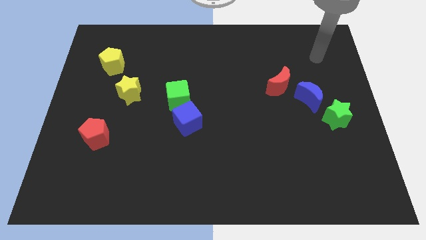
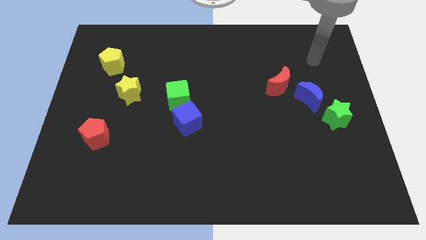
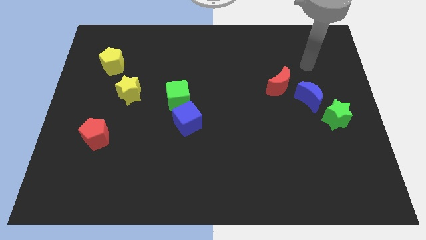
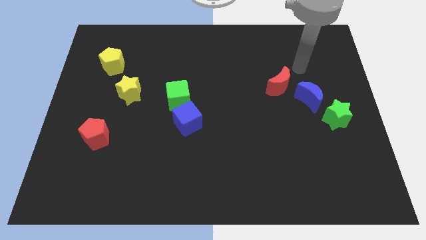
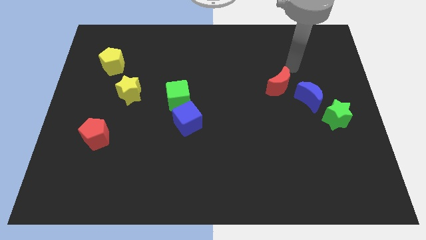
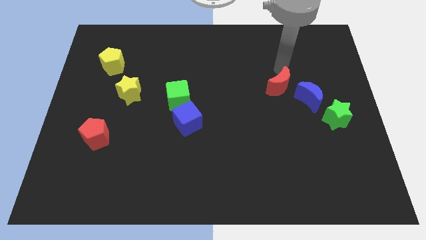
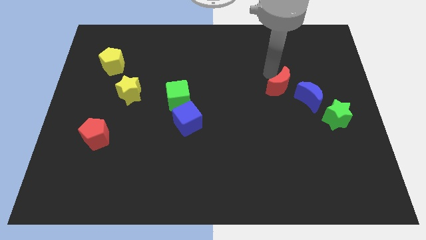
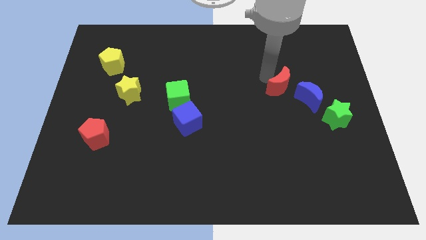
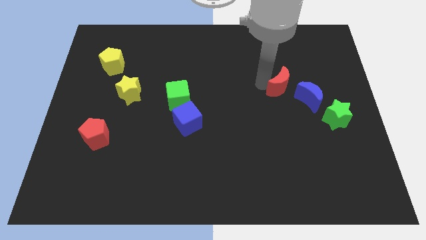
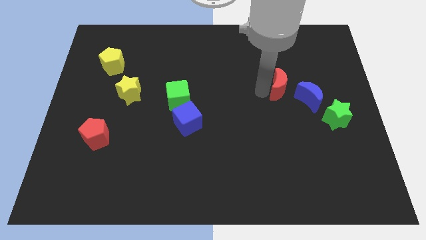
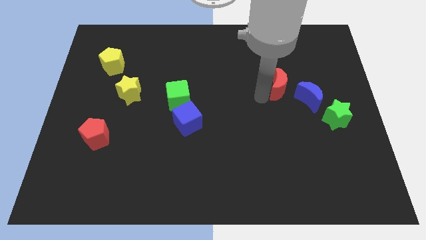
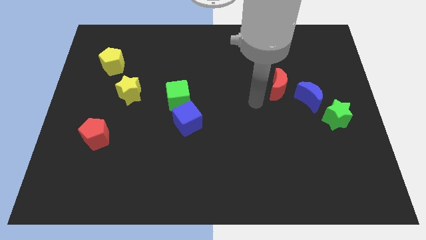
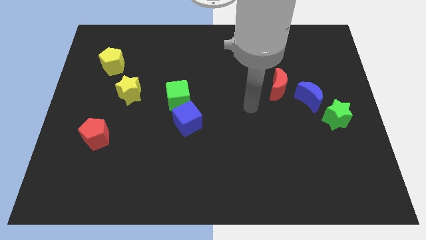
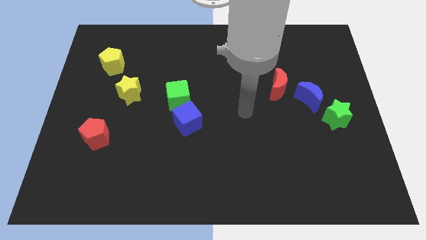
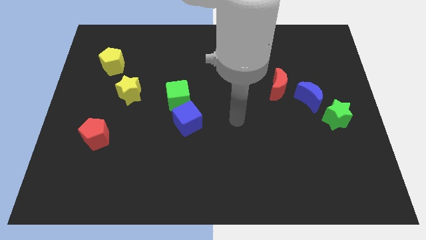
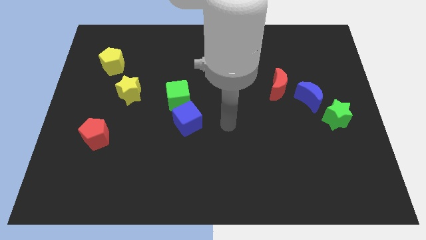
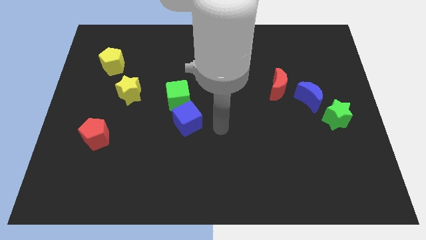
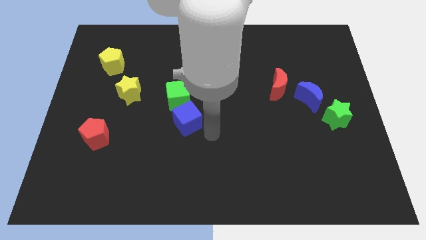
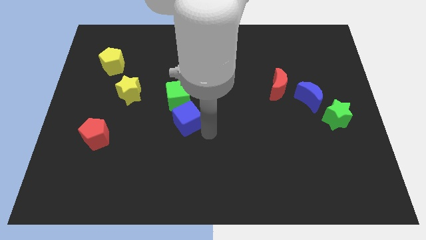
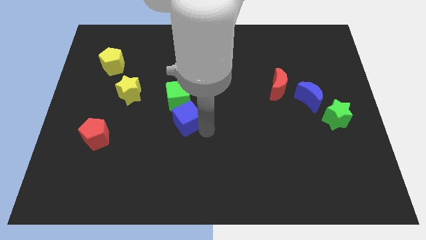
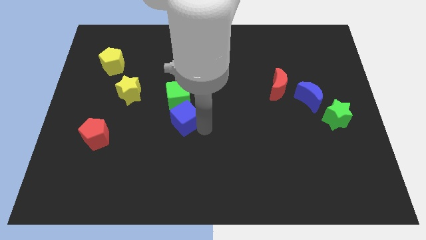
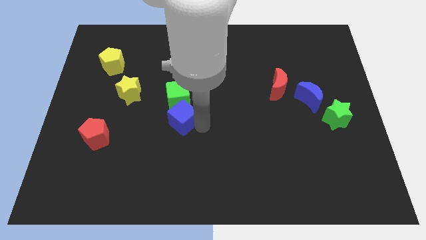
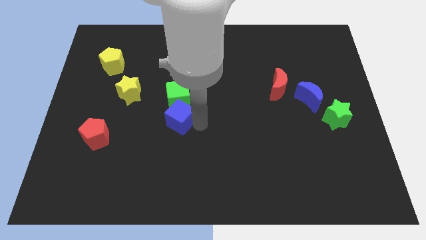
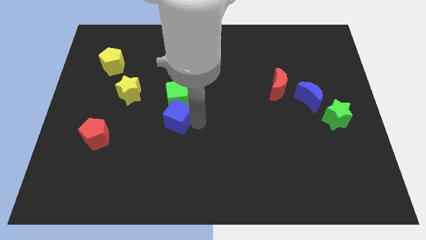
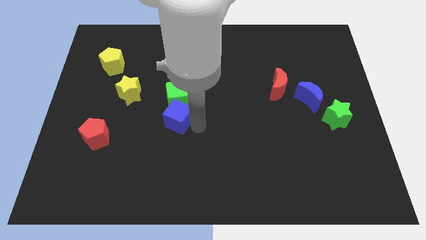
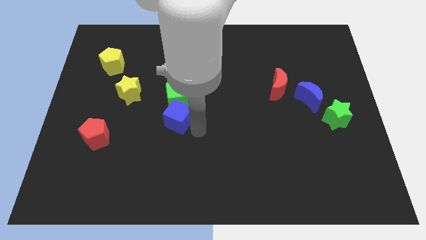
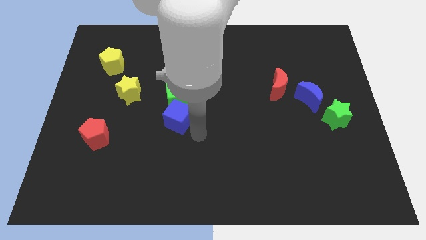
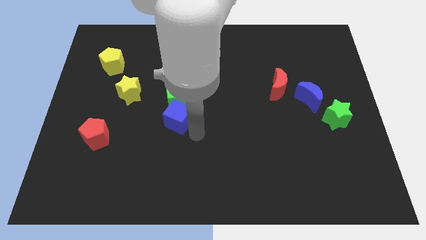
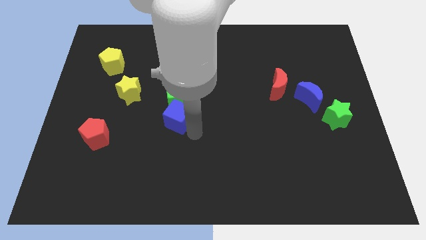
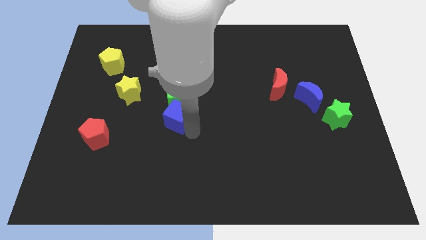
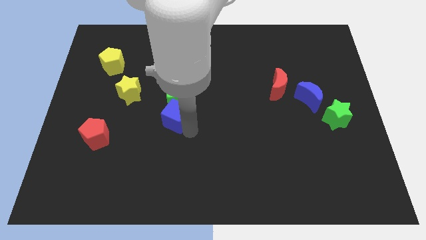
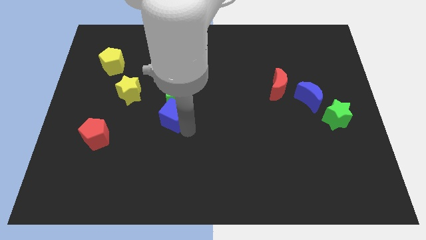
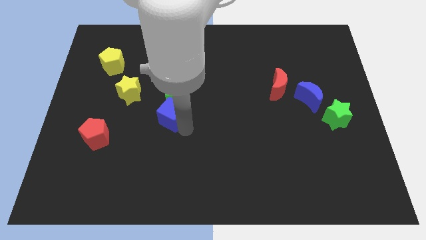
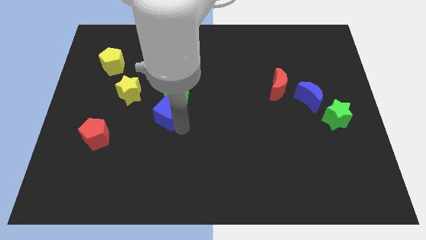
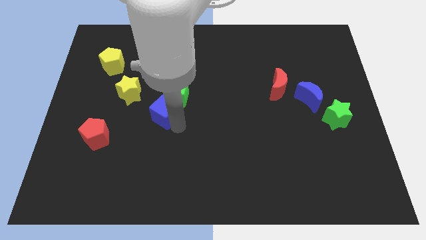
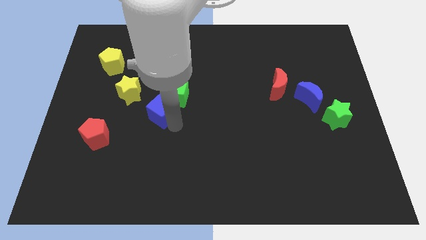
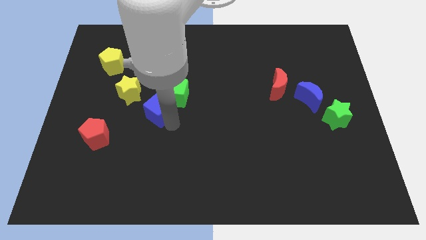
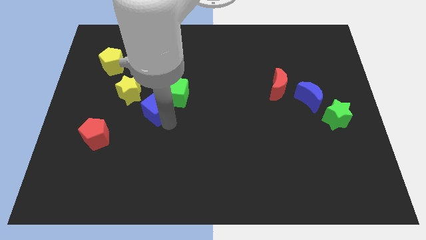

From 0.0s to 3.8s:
move the blue cube up and left a little

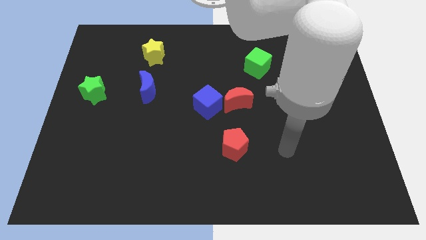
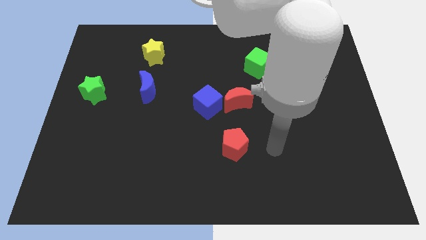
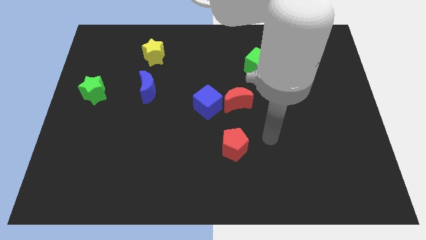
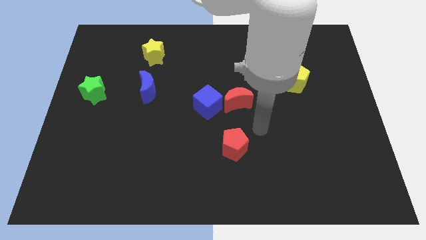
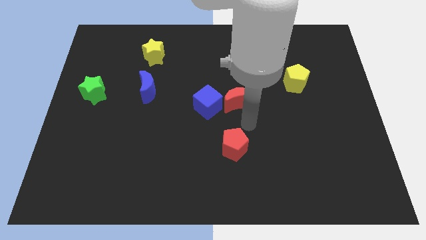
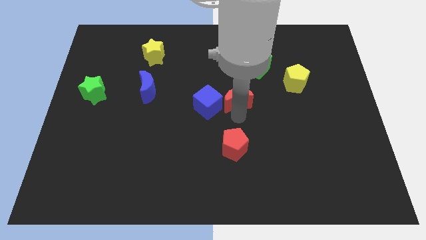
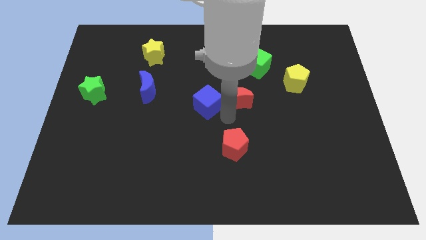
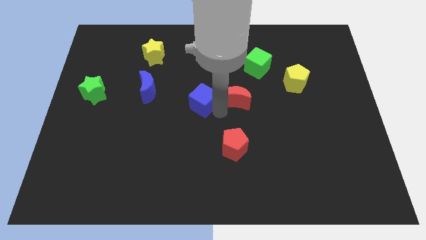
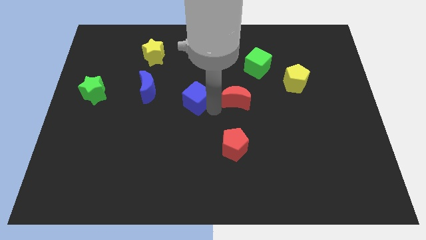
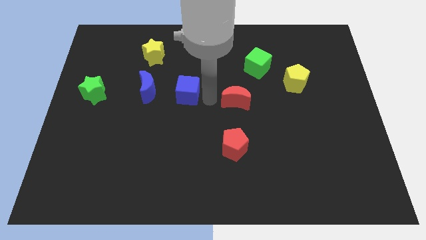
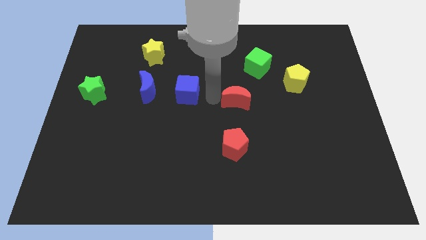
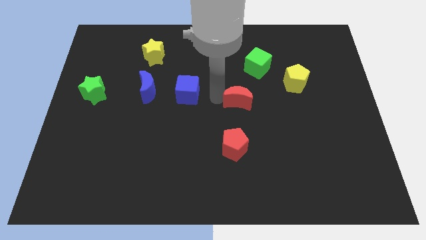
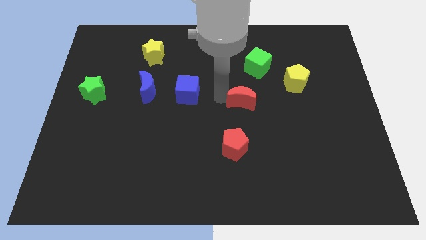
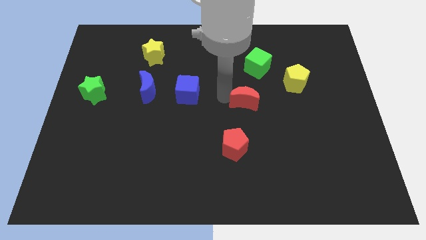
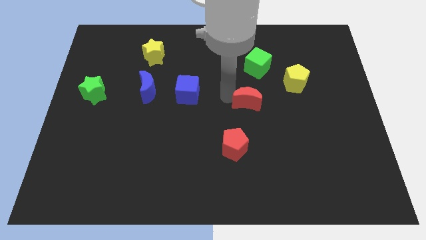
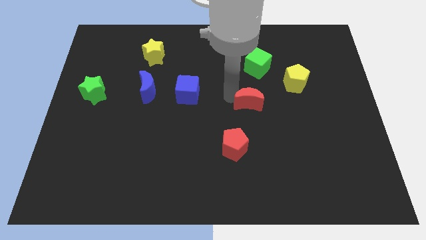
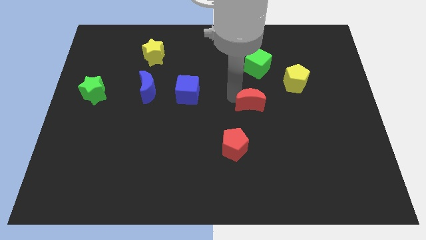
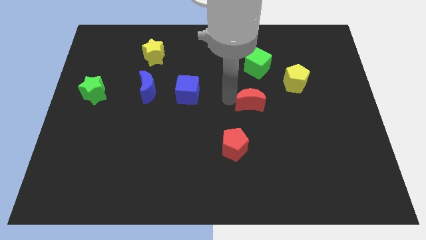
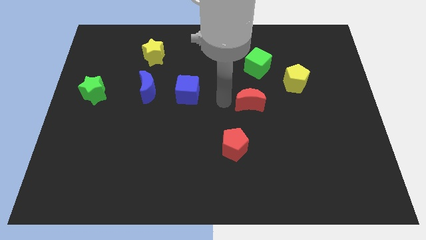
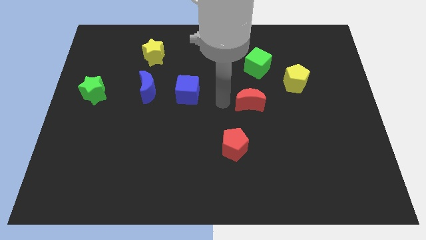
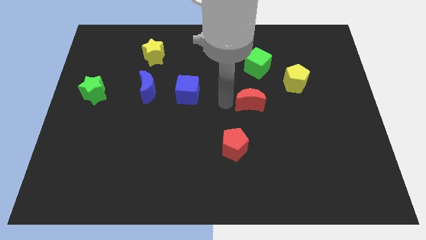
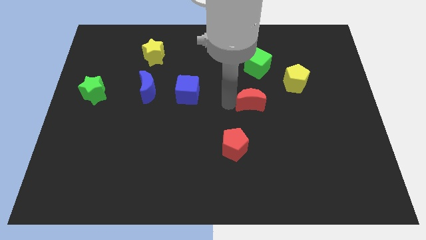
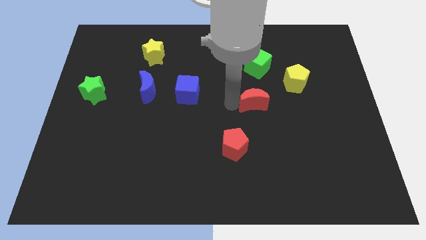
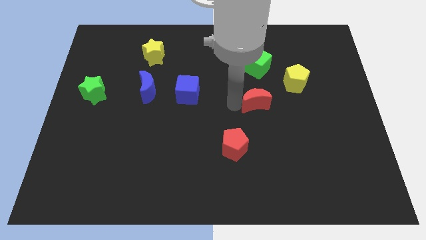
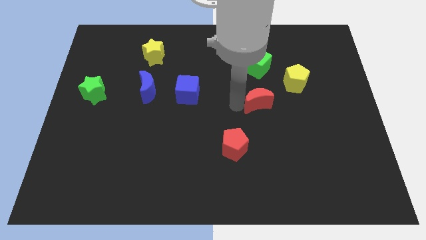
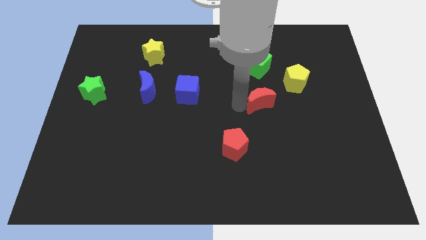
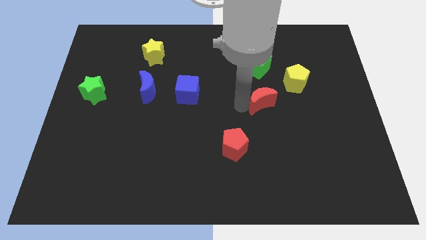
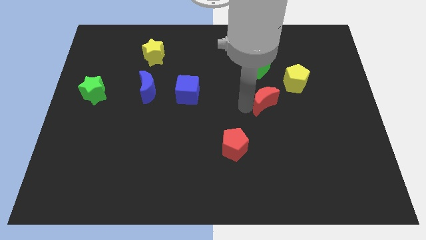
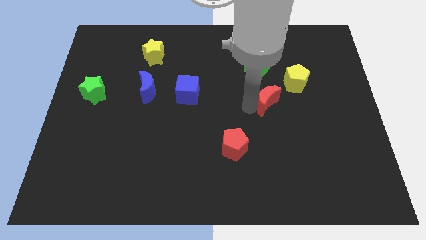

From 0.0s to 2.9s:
slightly slide the red moon to the right

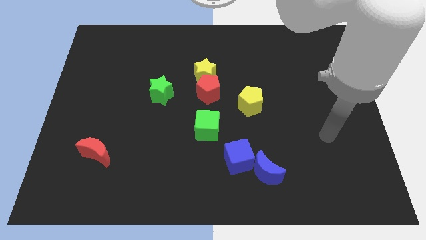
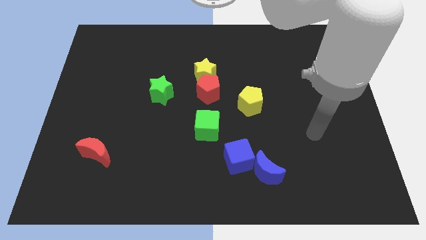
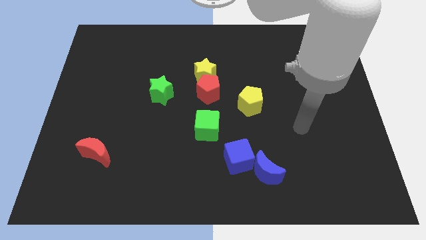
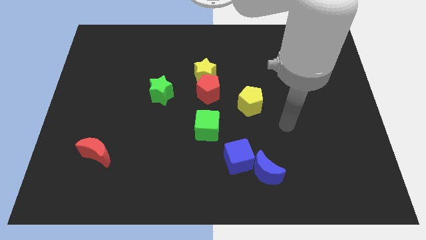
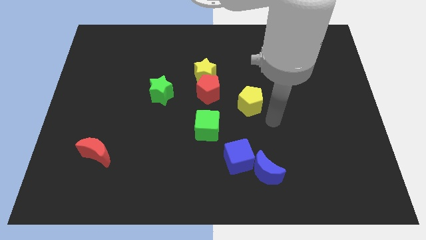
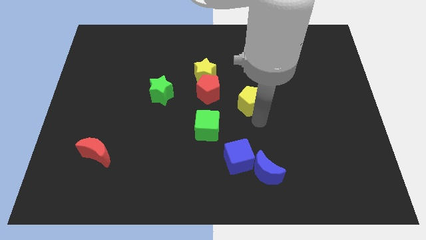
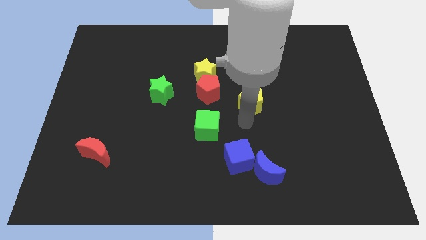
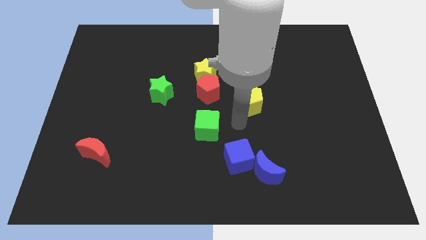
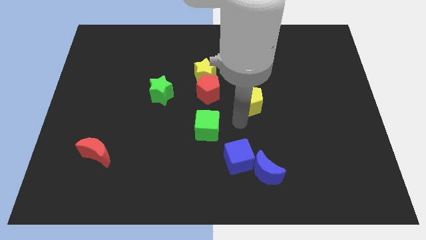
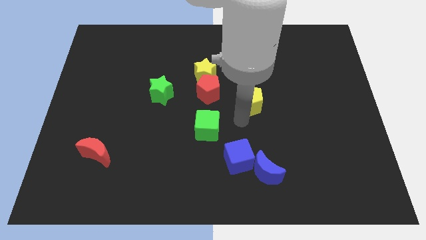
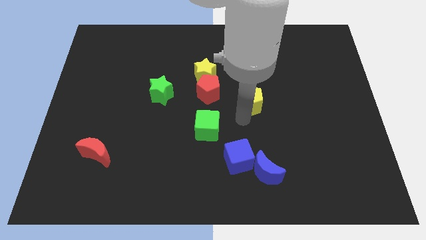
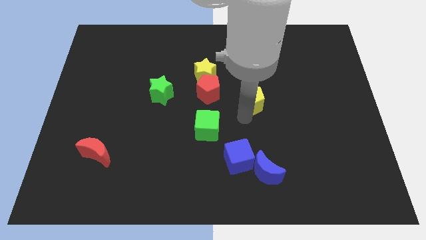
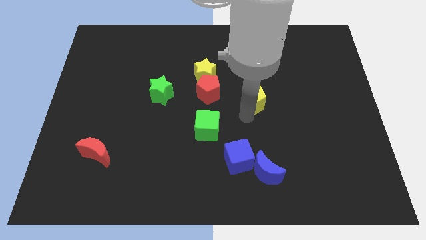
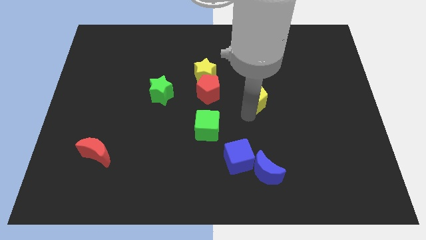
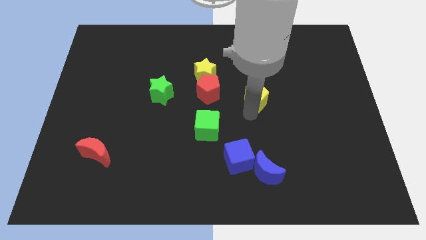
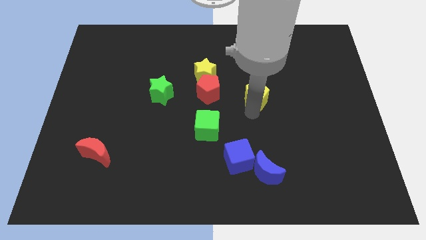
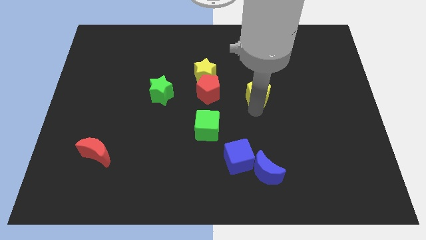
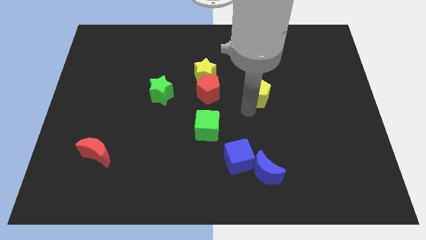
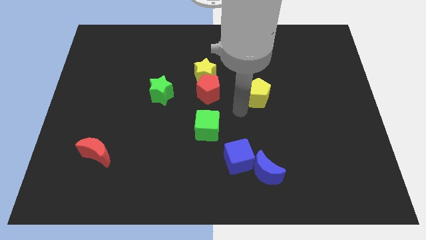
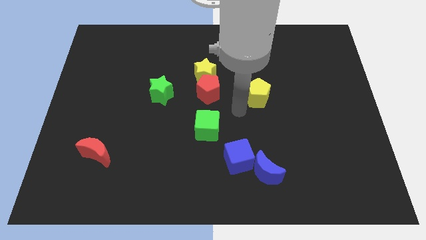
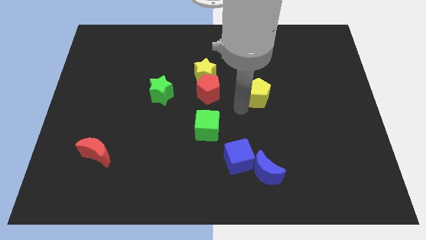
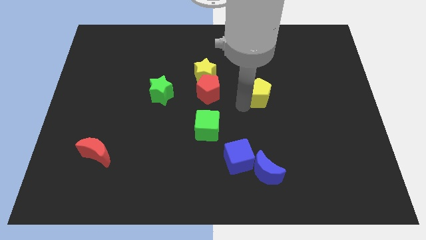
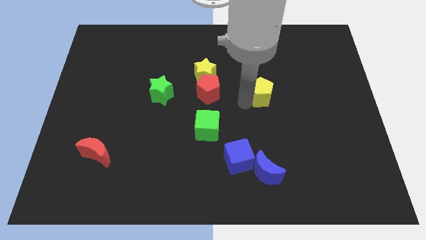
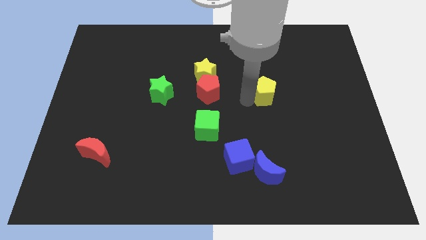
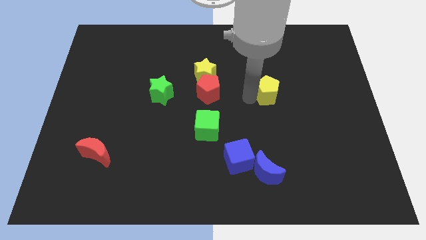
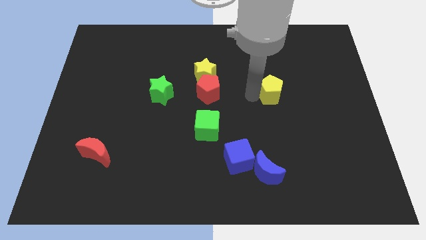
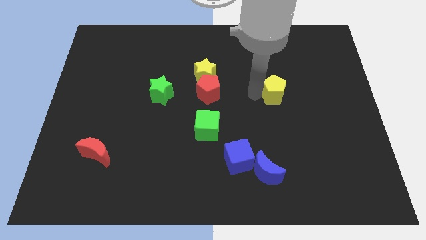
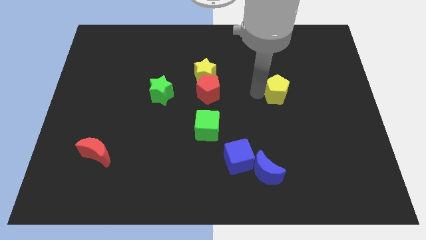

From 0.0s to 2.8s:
move the yellow pentagon up and to the right somewhat
